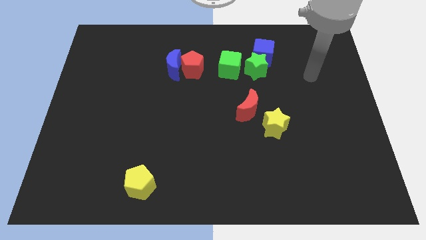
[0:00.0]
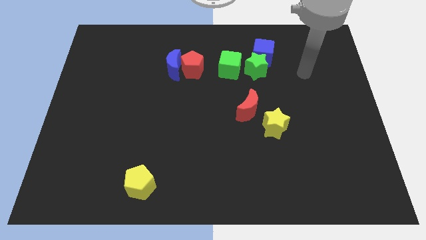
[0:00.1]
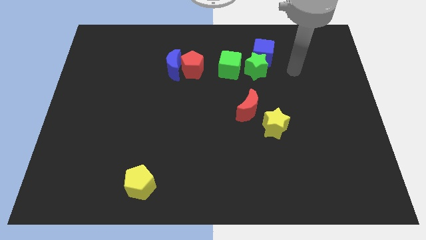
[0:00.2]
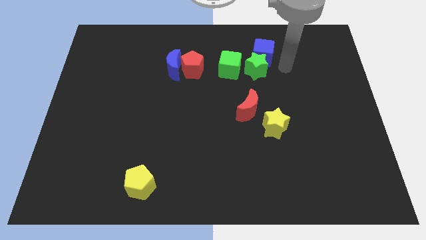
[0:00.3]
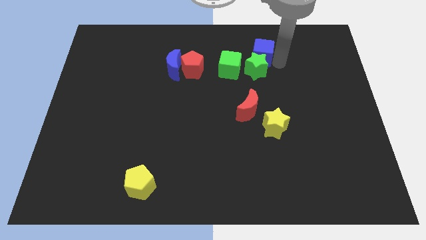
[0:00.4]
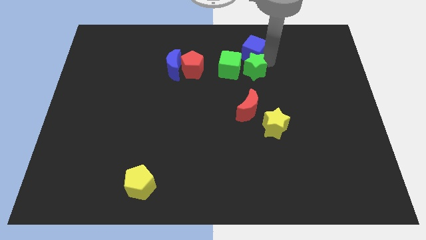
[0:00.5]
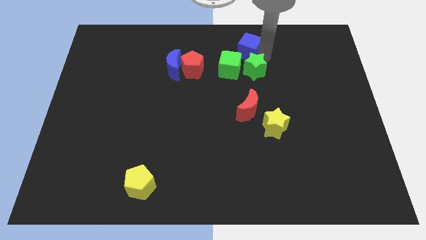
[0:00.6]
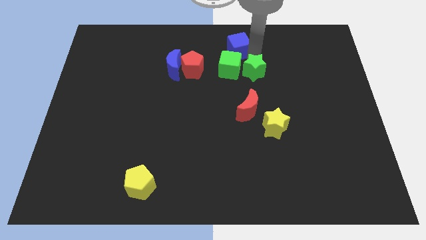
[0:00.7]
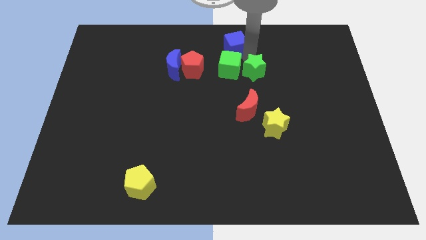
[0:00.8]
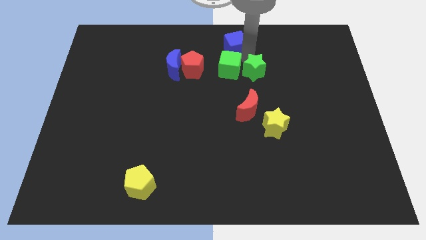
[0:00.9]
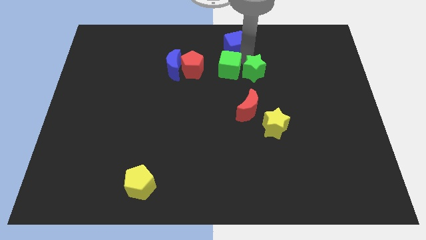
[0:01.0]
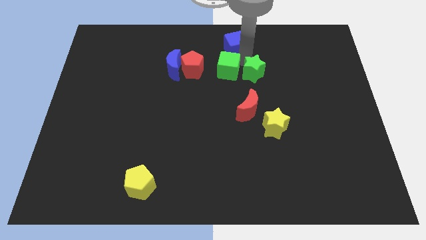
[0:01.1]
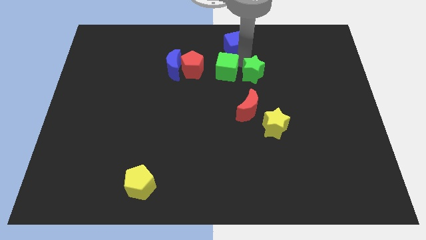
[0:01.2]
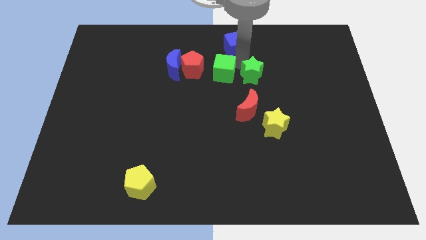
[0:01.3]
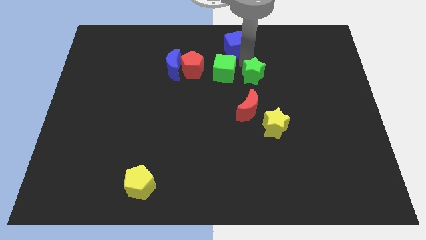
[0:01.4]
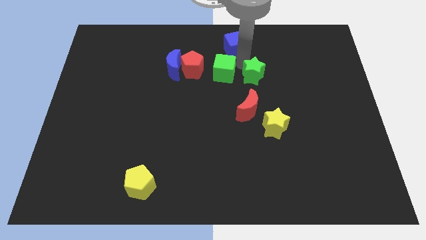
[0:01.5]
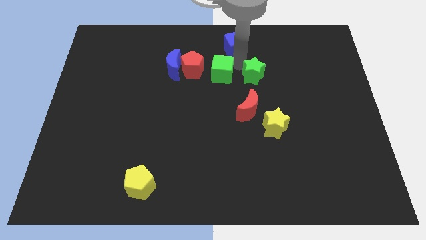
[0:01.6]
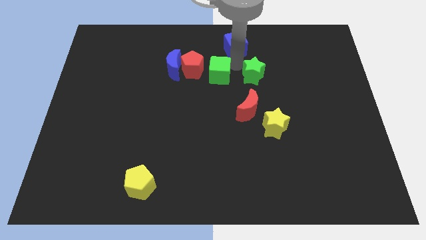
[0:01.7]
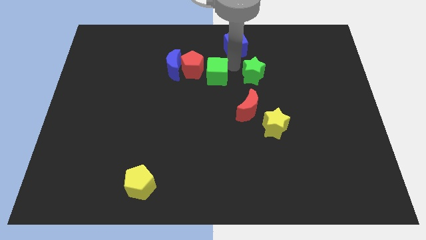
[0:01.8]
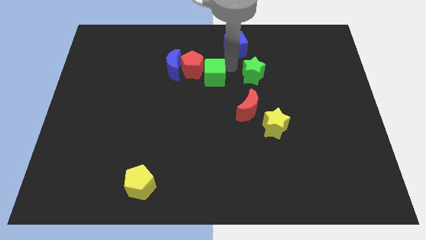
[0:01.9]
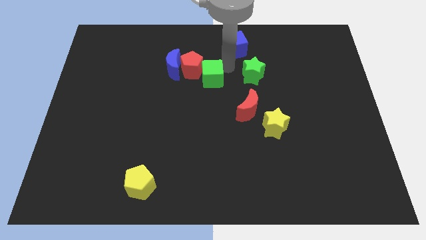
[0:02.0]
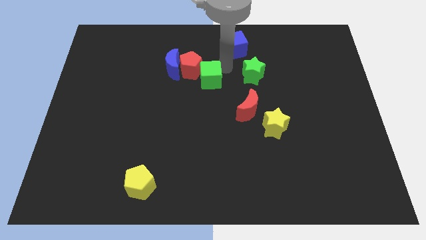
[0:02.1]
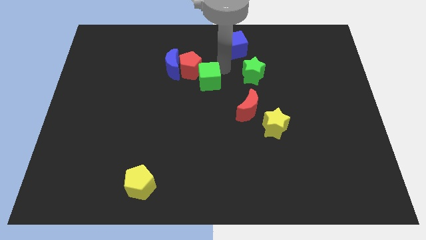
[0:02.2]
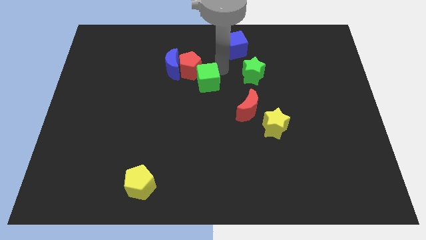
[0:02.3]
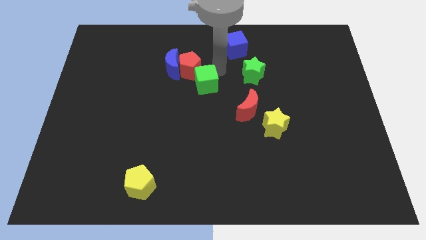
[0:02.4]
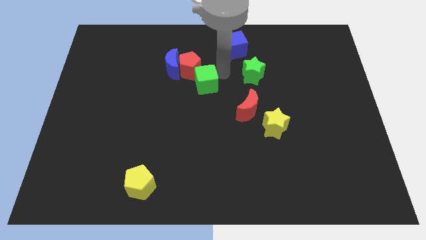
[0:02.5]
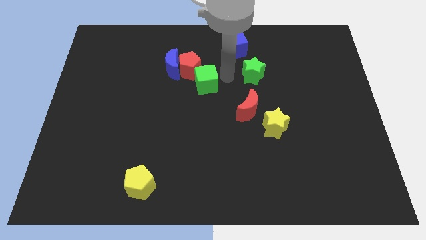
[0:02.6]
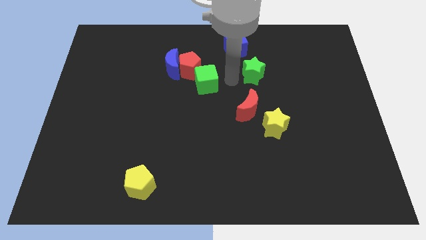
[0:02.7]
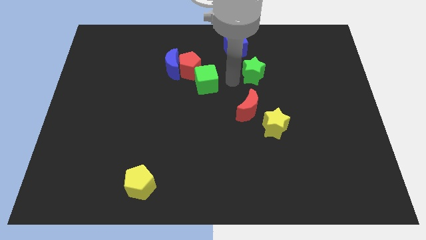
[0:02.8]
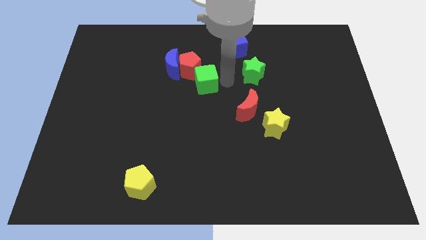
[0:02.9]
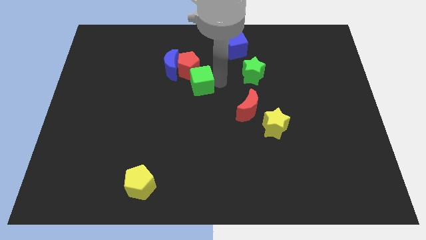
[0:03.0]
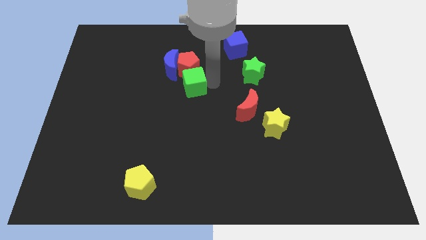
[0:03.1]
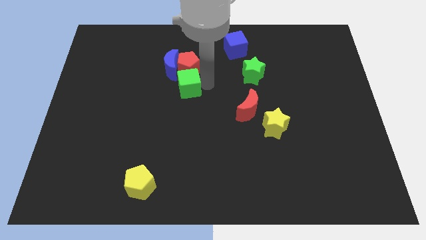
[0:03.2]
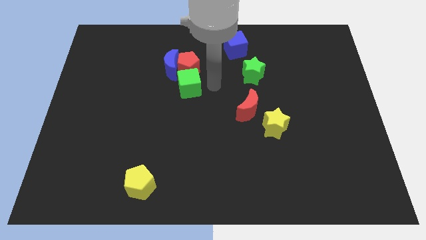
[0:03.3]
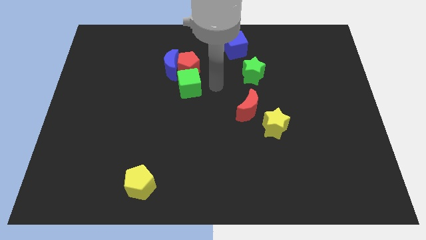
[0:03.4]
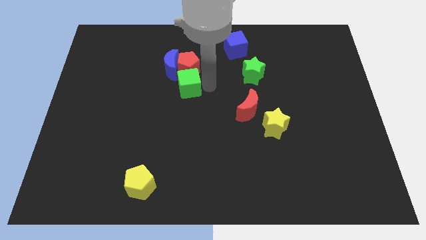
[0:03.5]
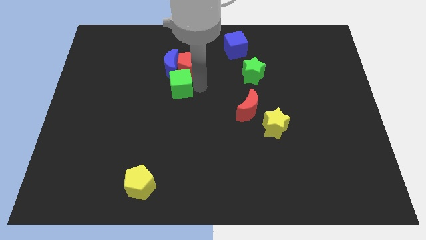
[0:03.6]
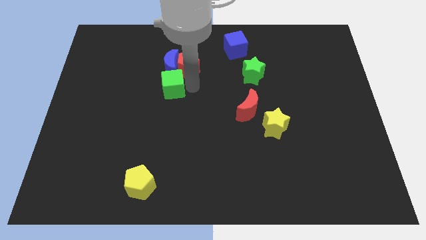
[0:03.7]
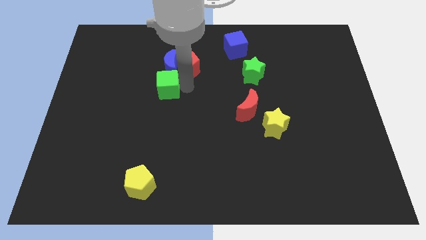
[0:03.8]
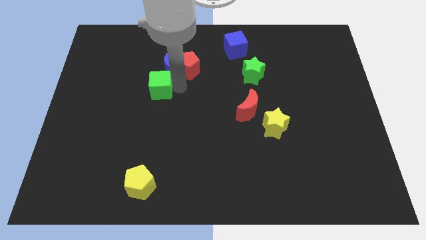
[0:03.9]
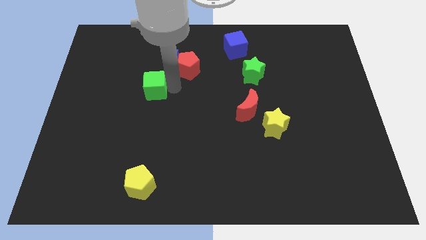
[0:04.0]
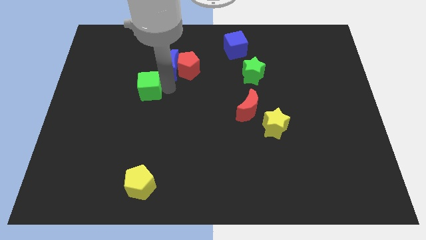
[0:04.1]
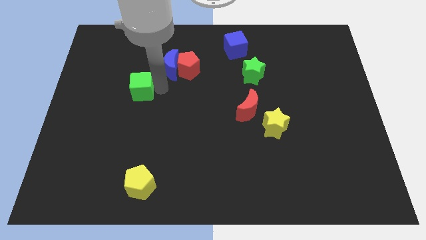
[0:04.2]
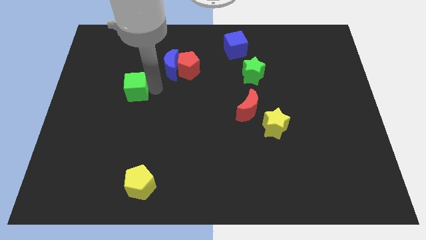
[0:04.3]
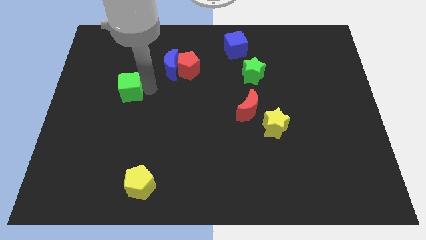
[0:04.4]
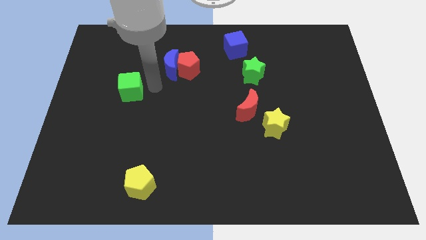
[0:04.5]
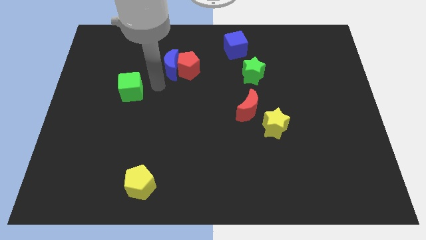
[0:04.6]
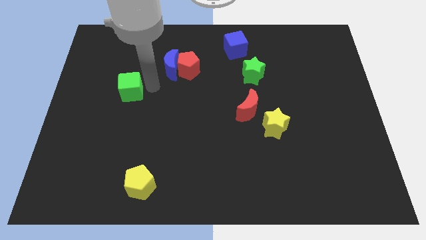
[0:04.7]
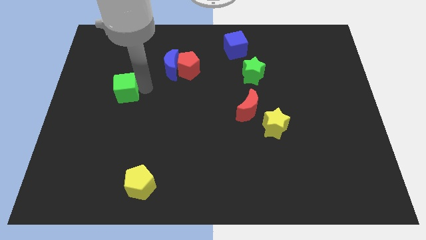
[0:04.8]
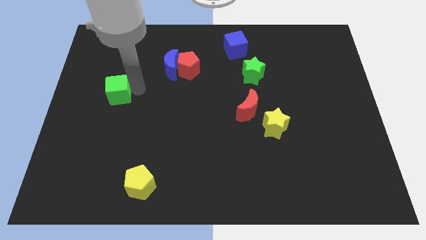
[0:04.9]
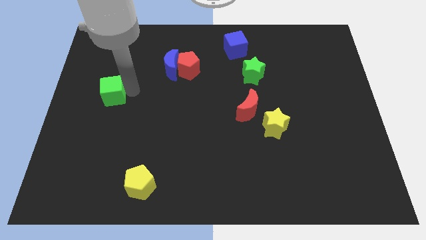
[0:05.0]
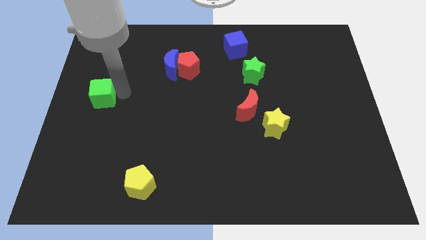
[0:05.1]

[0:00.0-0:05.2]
move the green cube to the left side of the board
